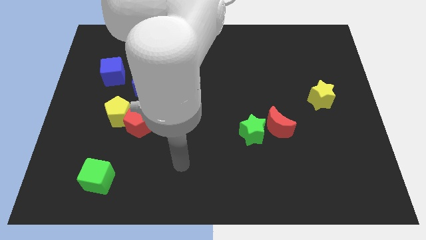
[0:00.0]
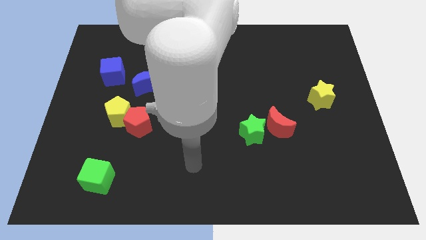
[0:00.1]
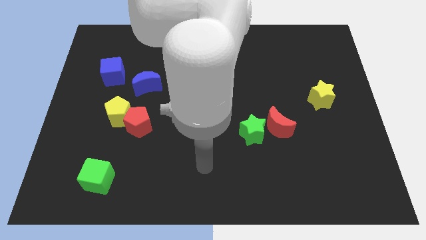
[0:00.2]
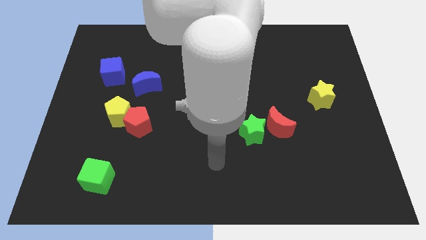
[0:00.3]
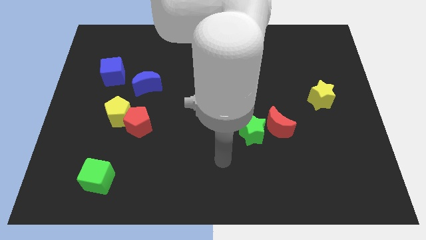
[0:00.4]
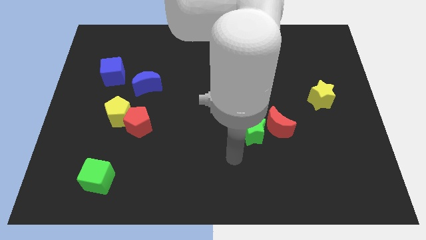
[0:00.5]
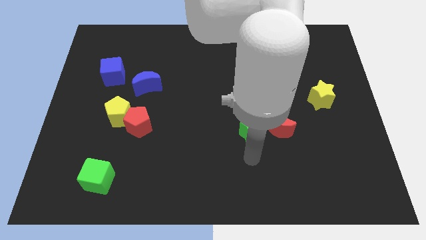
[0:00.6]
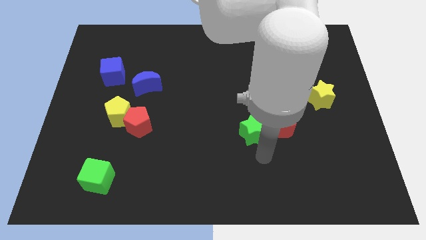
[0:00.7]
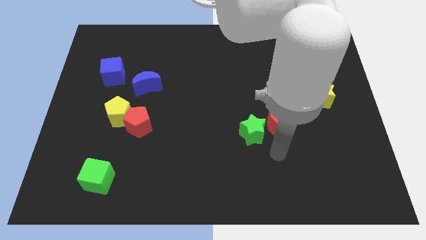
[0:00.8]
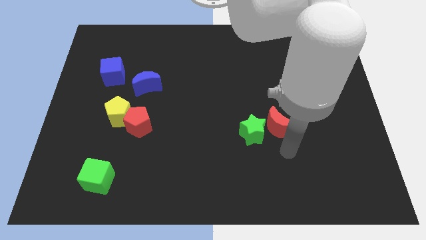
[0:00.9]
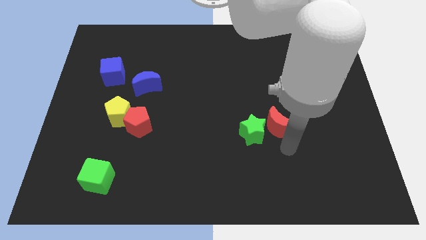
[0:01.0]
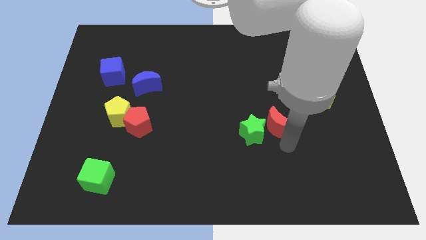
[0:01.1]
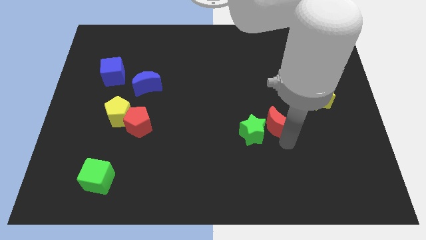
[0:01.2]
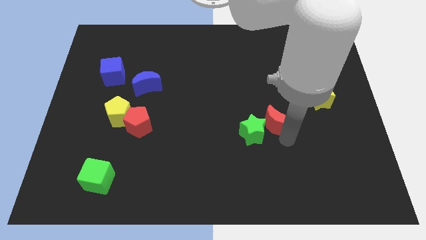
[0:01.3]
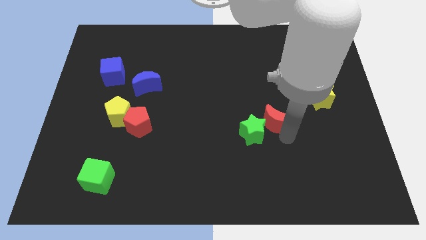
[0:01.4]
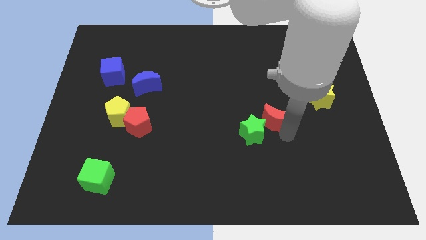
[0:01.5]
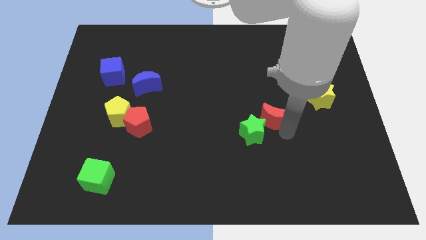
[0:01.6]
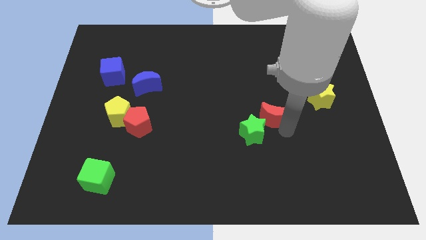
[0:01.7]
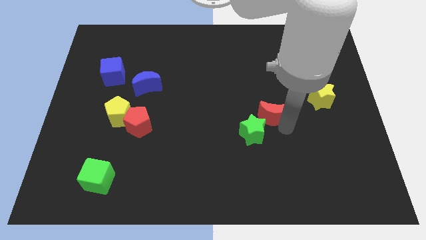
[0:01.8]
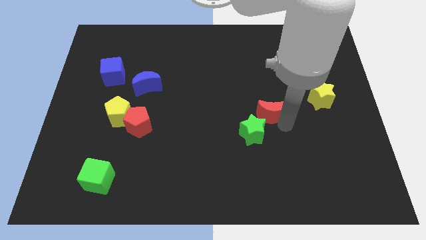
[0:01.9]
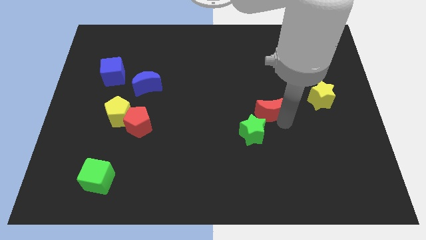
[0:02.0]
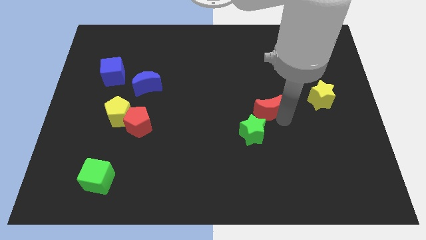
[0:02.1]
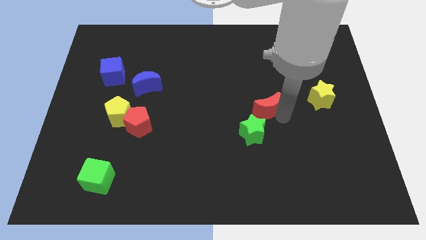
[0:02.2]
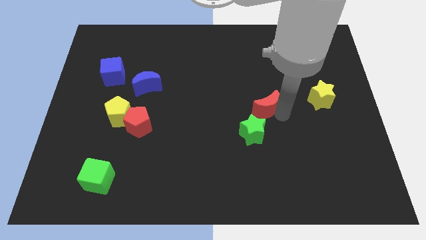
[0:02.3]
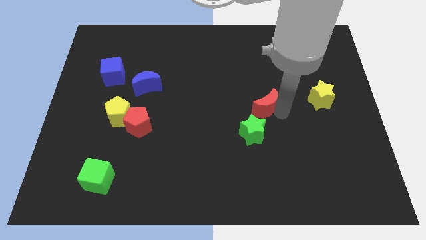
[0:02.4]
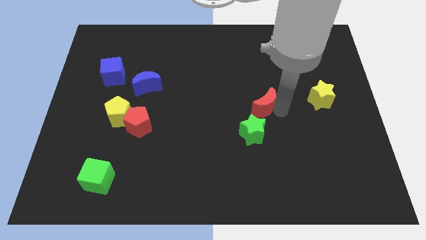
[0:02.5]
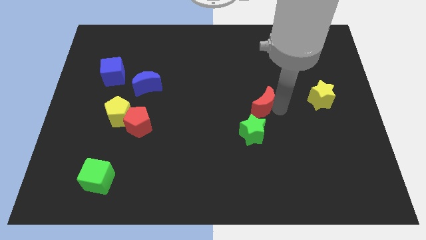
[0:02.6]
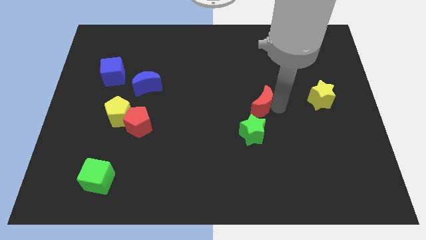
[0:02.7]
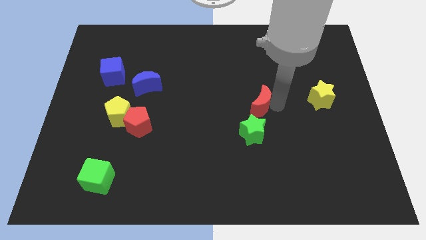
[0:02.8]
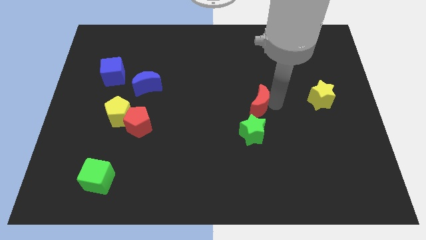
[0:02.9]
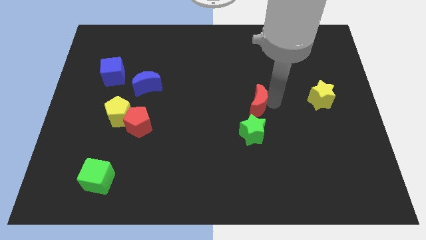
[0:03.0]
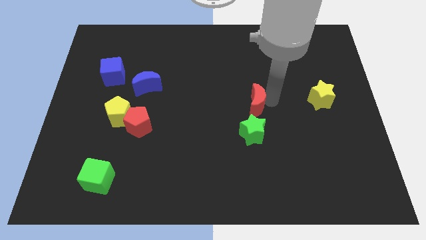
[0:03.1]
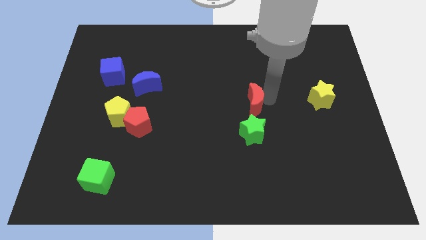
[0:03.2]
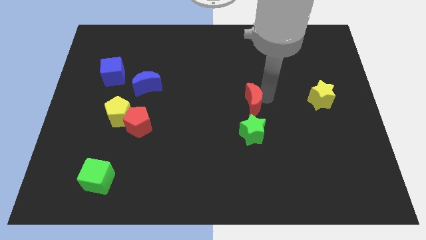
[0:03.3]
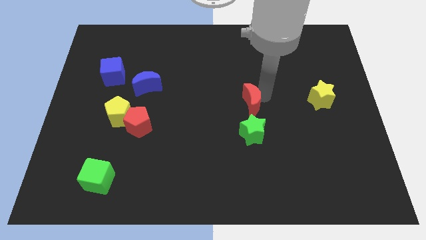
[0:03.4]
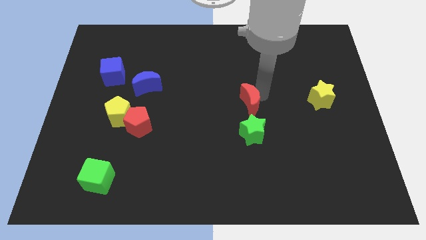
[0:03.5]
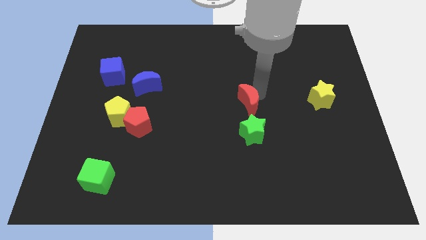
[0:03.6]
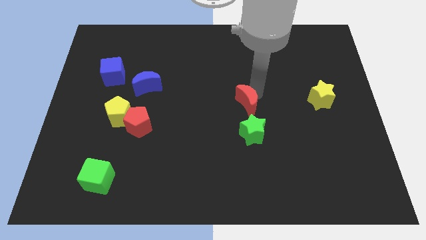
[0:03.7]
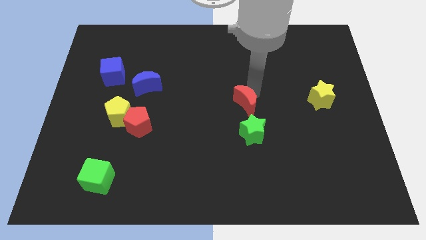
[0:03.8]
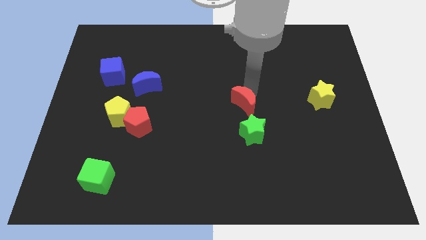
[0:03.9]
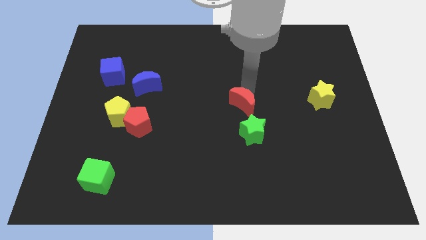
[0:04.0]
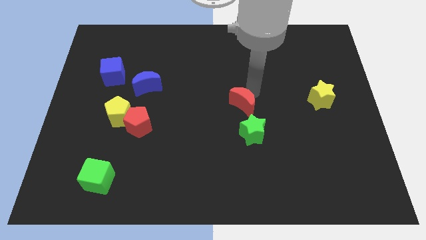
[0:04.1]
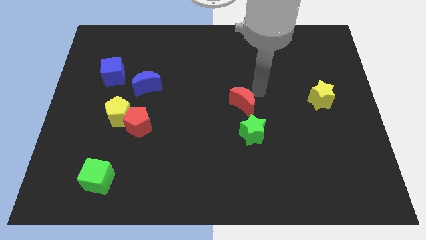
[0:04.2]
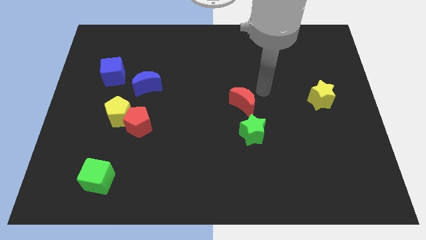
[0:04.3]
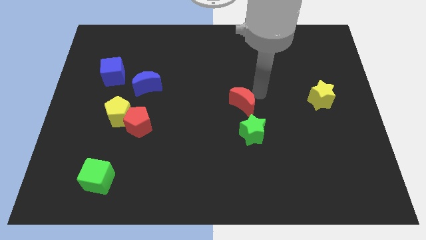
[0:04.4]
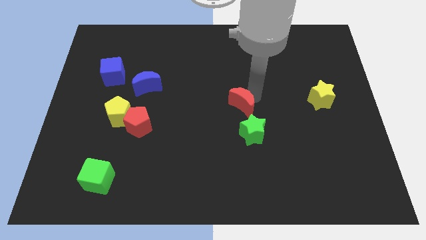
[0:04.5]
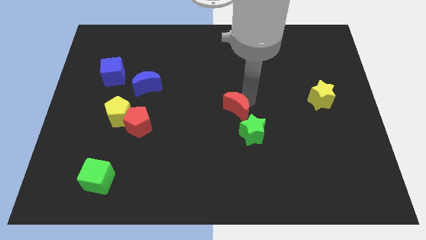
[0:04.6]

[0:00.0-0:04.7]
push the red moon a little left

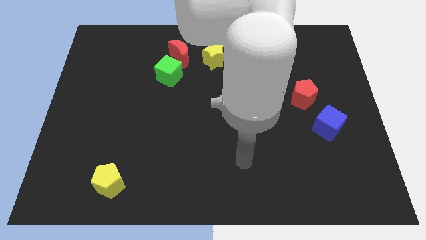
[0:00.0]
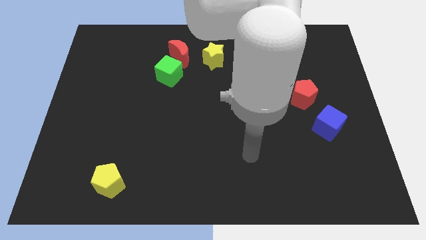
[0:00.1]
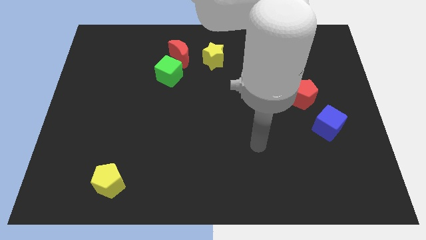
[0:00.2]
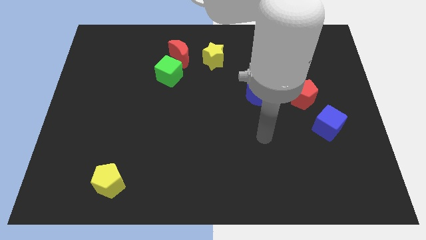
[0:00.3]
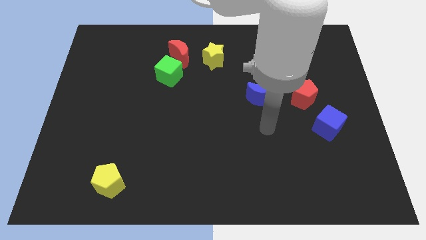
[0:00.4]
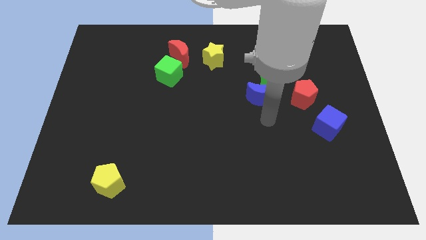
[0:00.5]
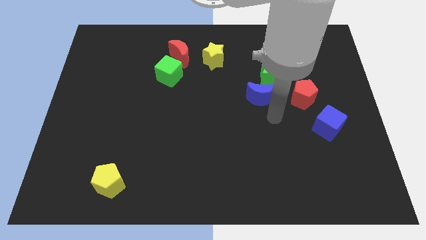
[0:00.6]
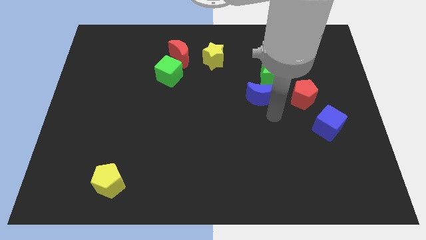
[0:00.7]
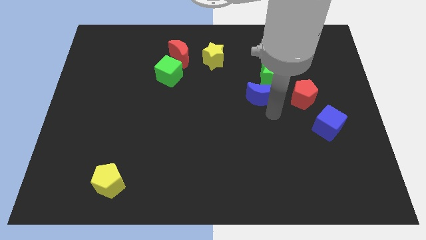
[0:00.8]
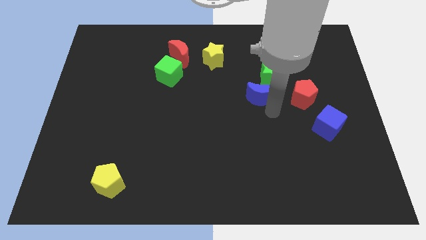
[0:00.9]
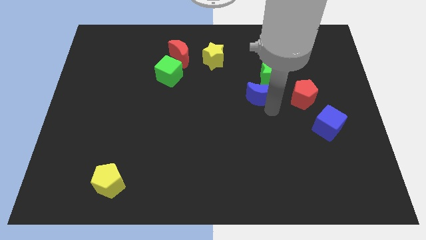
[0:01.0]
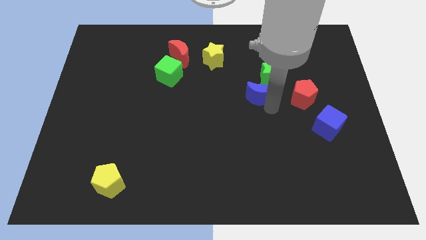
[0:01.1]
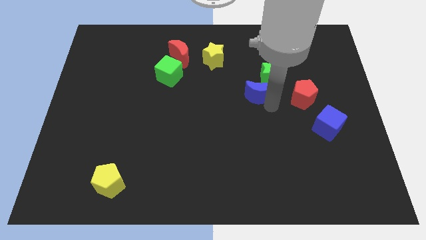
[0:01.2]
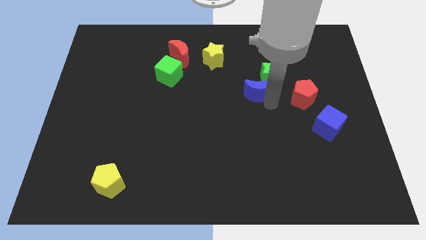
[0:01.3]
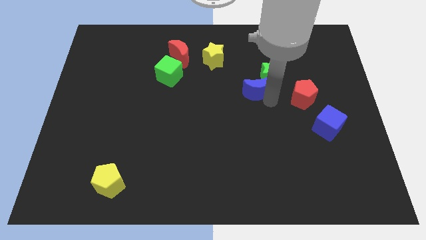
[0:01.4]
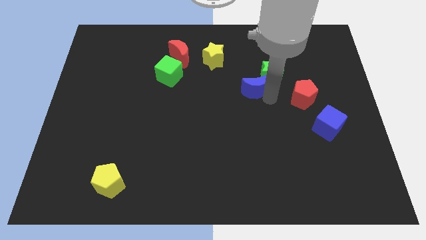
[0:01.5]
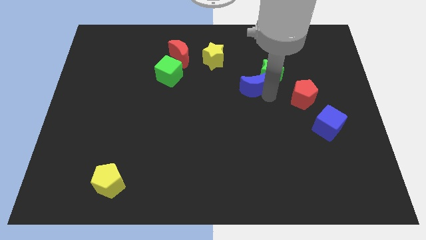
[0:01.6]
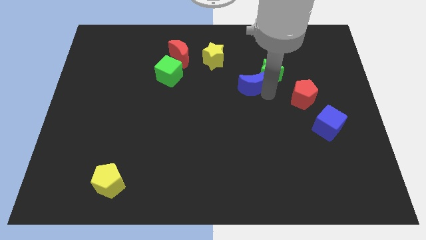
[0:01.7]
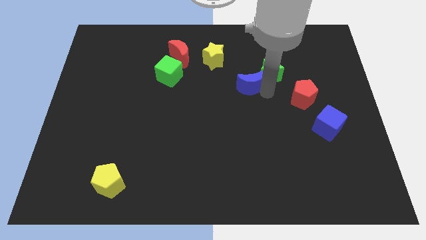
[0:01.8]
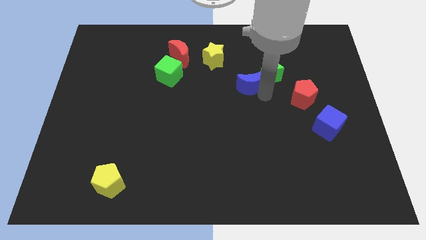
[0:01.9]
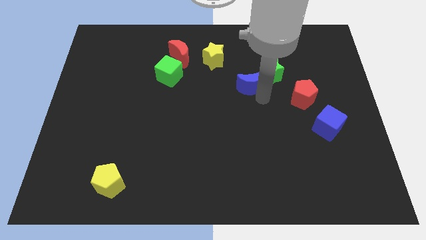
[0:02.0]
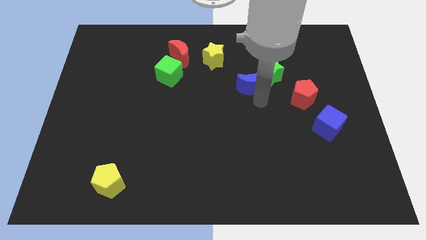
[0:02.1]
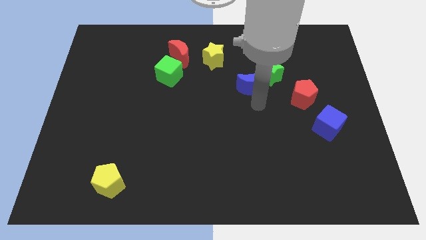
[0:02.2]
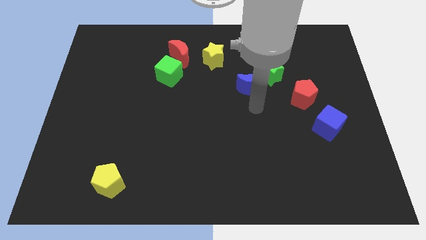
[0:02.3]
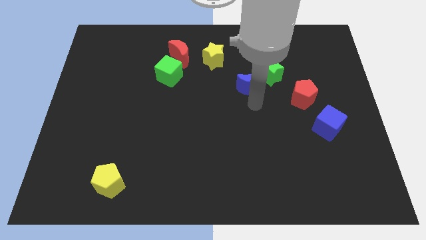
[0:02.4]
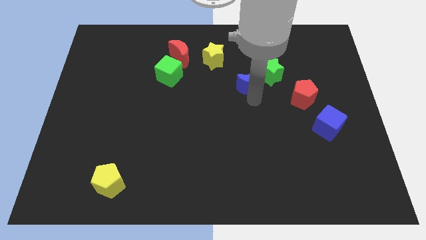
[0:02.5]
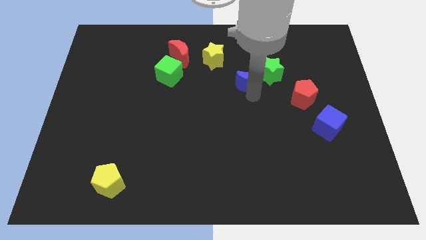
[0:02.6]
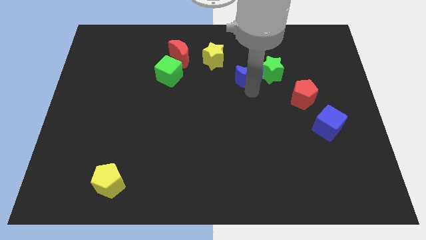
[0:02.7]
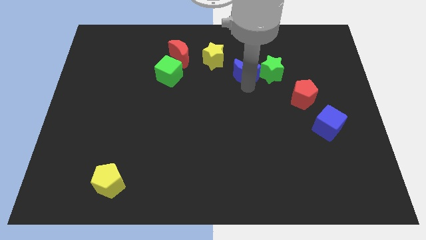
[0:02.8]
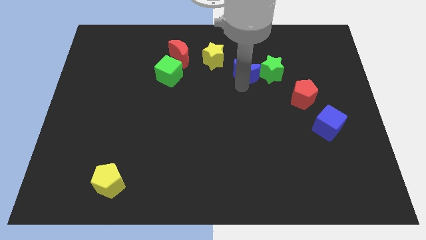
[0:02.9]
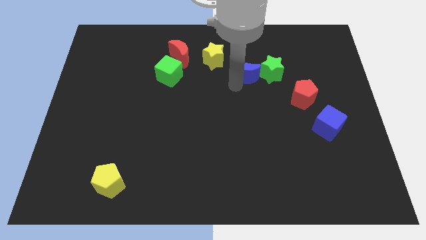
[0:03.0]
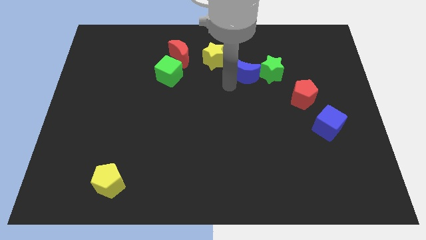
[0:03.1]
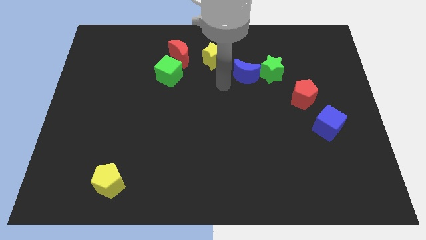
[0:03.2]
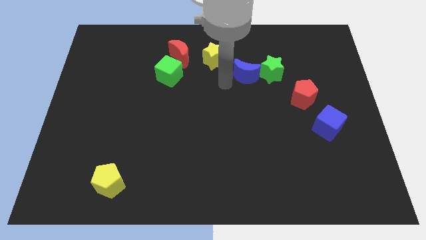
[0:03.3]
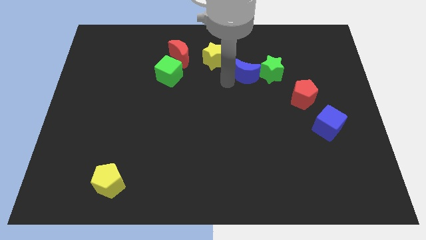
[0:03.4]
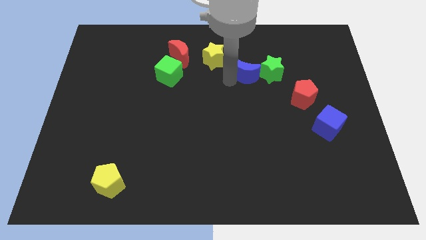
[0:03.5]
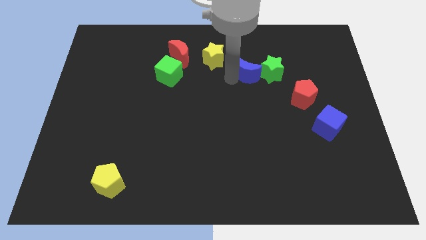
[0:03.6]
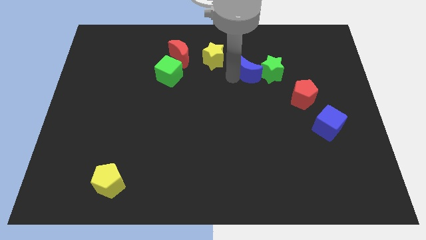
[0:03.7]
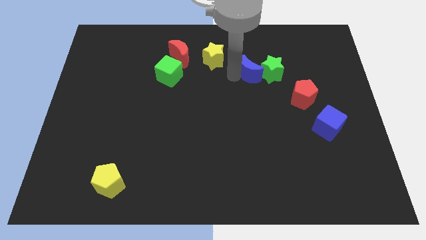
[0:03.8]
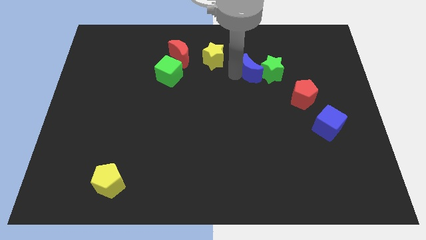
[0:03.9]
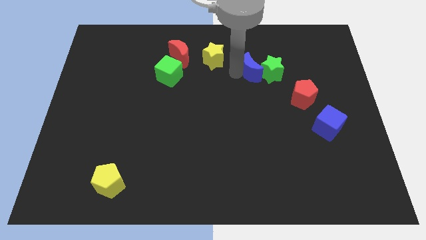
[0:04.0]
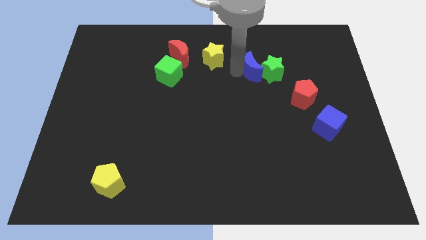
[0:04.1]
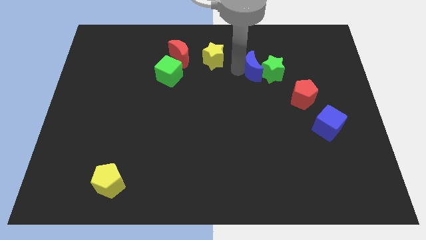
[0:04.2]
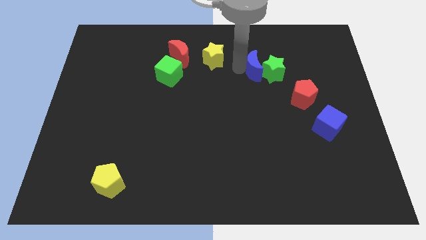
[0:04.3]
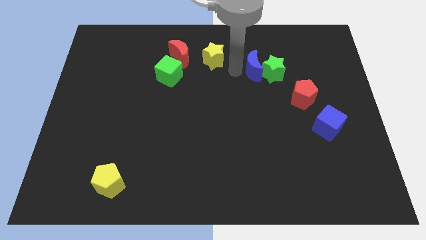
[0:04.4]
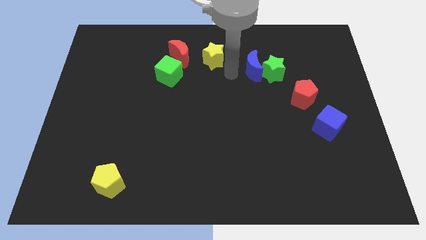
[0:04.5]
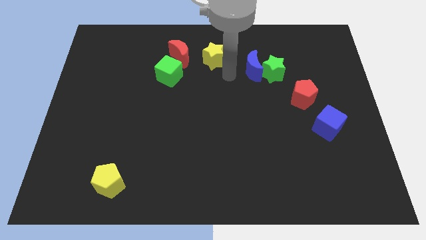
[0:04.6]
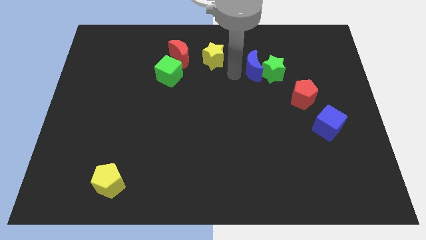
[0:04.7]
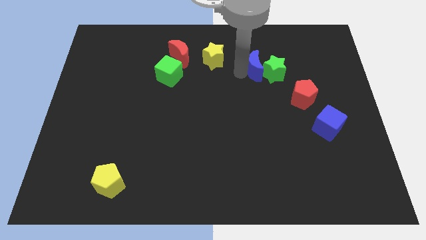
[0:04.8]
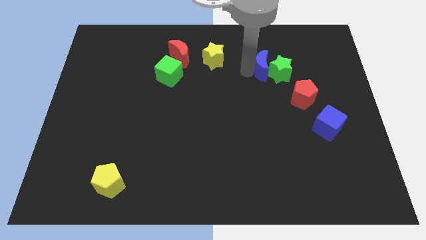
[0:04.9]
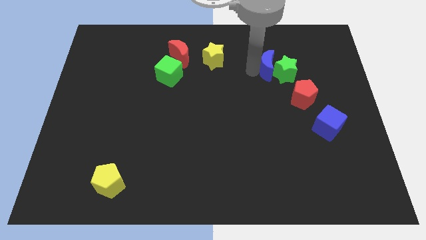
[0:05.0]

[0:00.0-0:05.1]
slide the blue moon up and to the right diagonally somewhat
